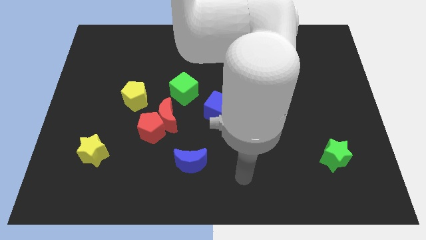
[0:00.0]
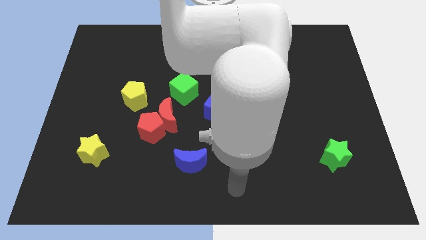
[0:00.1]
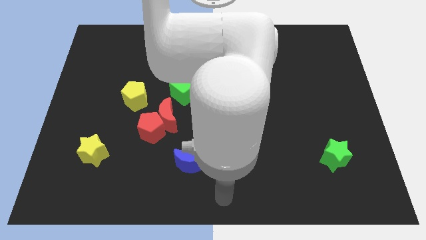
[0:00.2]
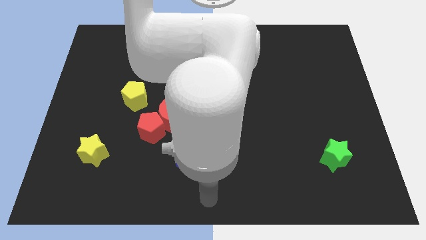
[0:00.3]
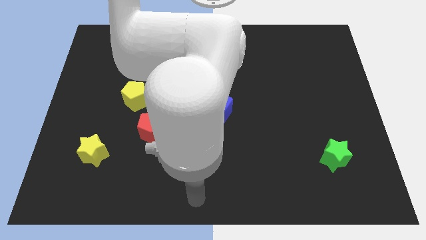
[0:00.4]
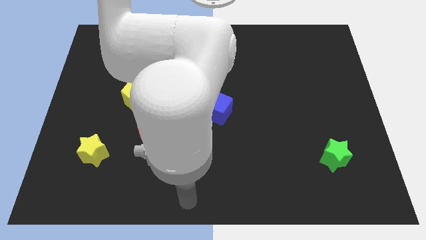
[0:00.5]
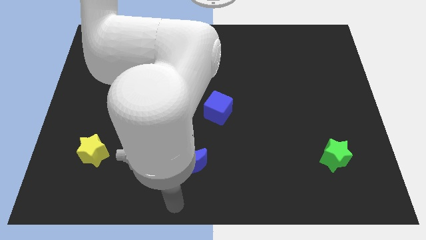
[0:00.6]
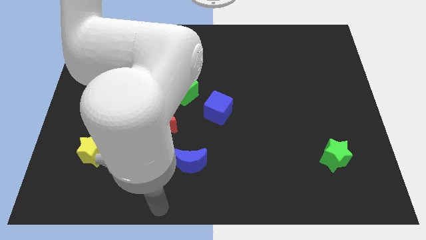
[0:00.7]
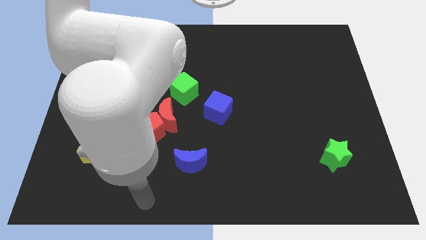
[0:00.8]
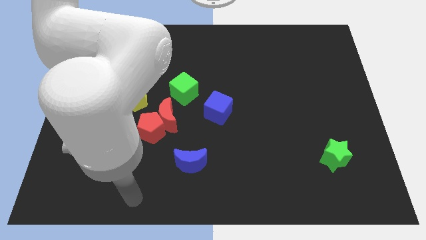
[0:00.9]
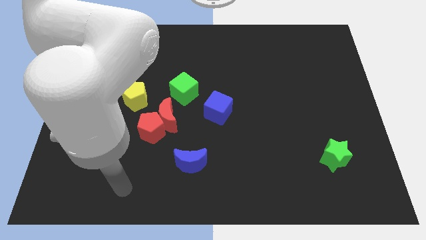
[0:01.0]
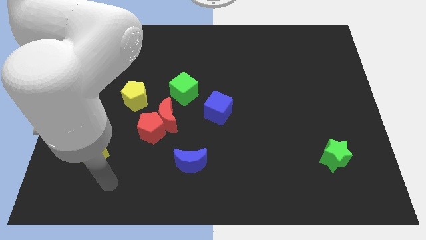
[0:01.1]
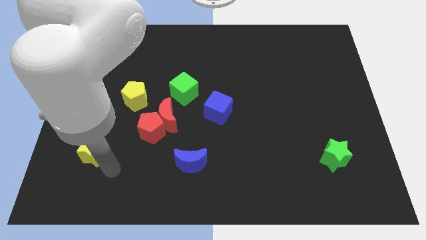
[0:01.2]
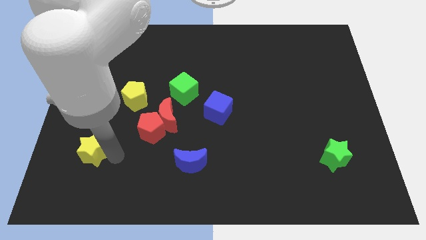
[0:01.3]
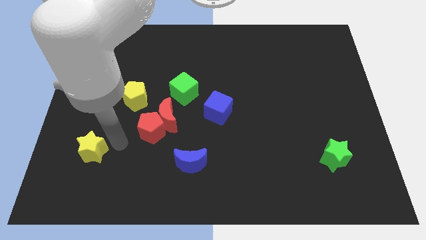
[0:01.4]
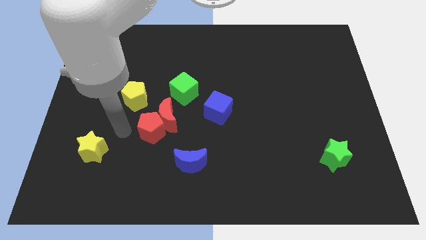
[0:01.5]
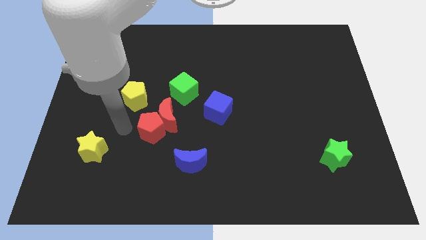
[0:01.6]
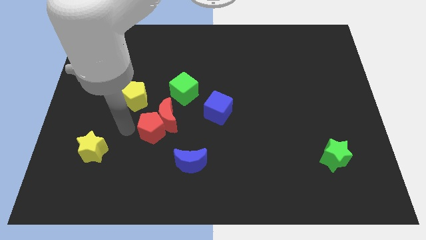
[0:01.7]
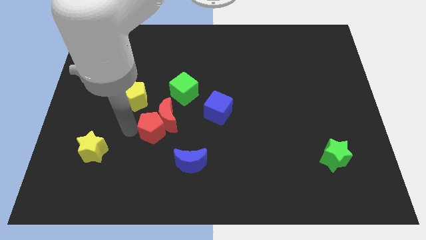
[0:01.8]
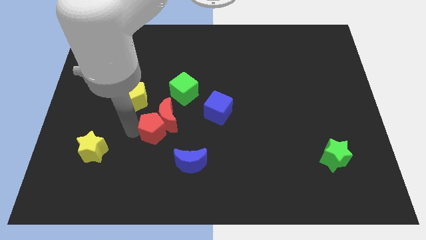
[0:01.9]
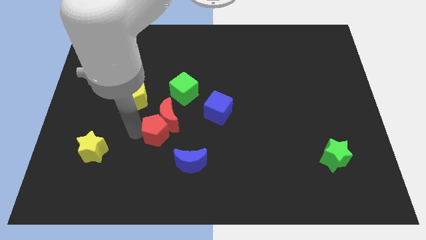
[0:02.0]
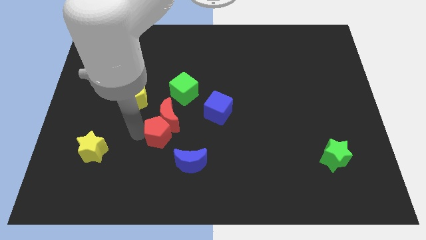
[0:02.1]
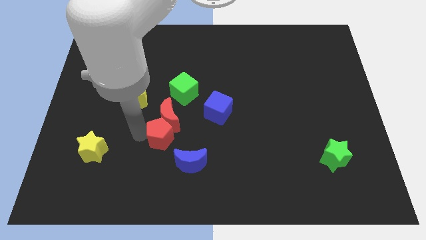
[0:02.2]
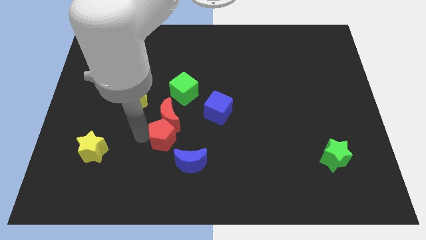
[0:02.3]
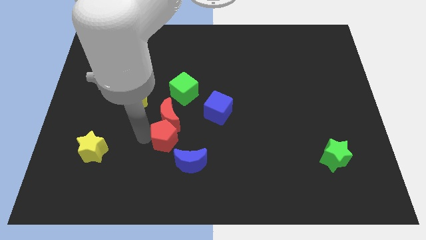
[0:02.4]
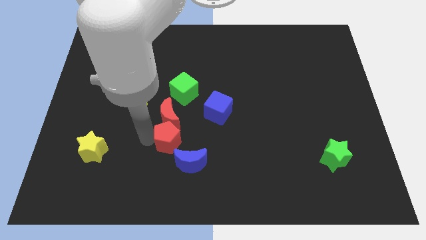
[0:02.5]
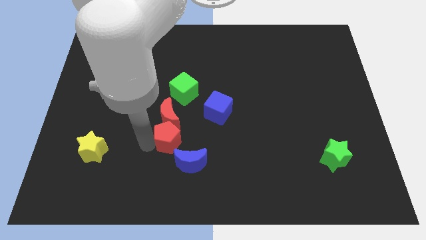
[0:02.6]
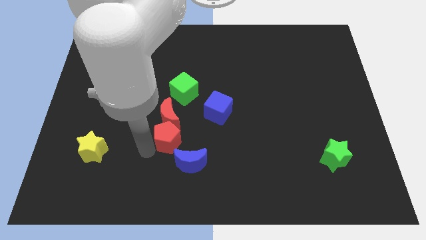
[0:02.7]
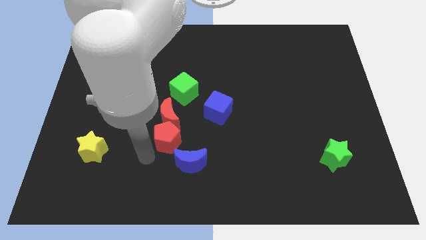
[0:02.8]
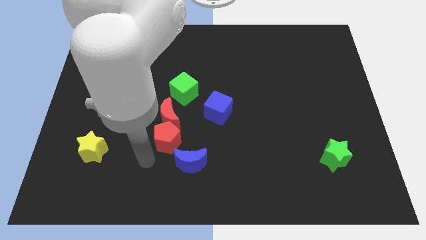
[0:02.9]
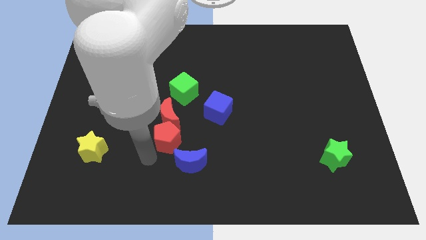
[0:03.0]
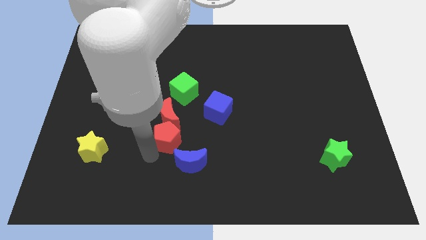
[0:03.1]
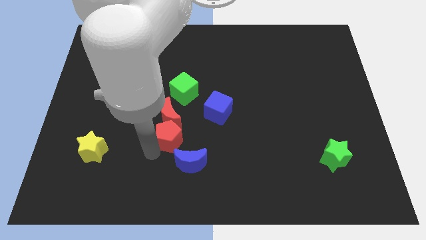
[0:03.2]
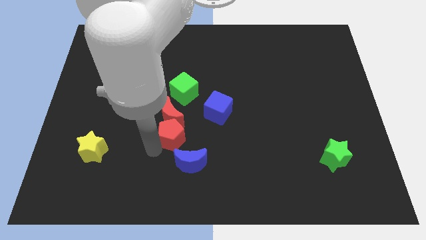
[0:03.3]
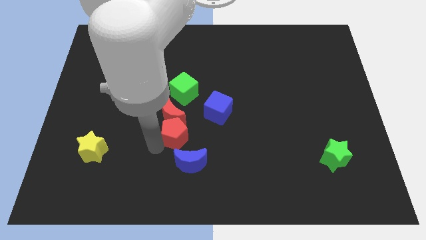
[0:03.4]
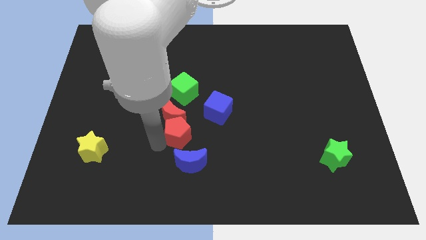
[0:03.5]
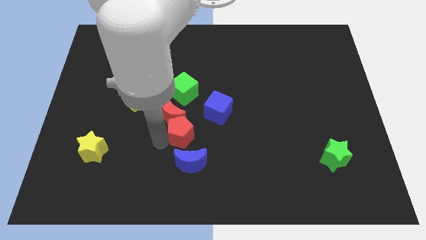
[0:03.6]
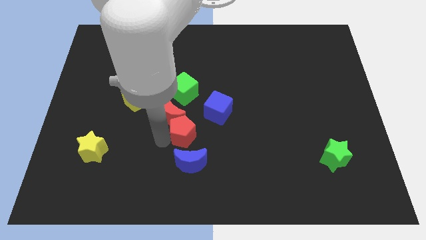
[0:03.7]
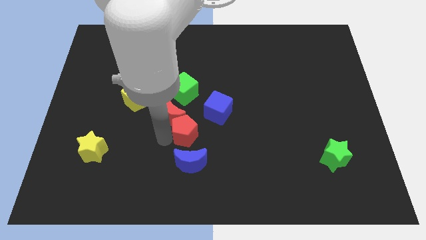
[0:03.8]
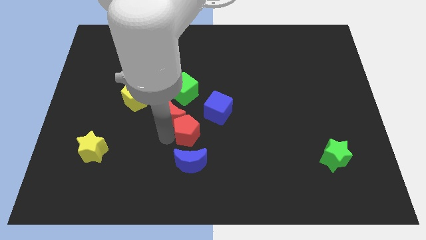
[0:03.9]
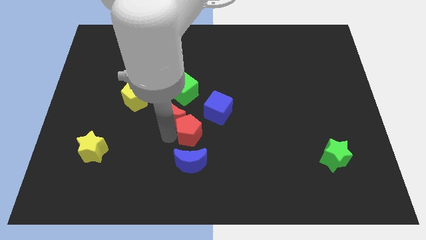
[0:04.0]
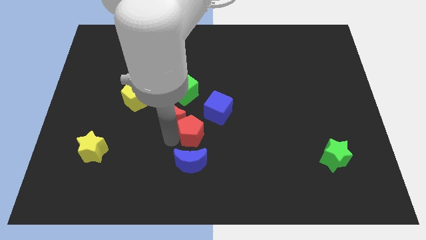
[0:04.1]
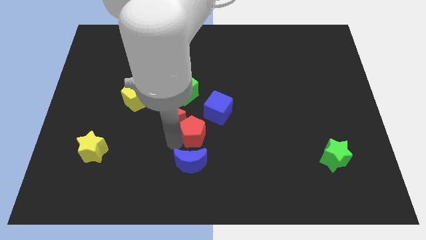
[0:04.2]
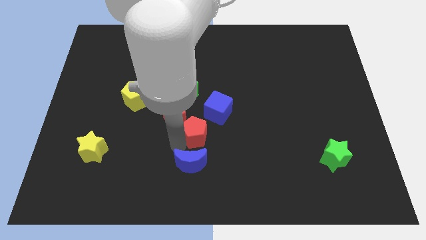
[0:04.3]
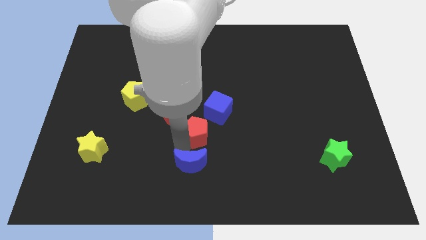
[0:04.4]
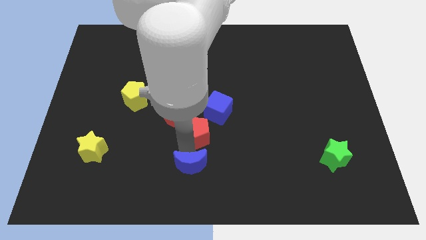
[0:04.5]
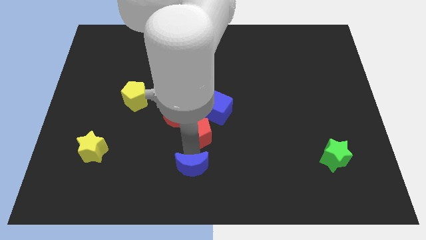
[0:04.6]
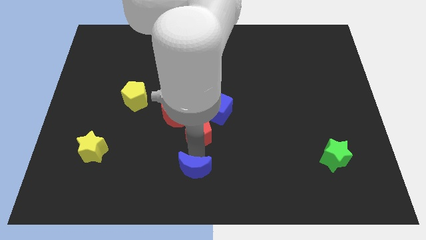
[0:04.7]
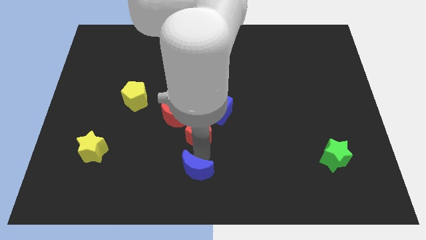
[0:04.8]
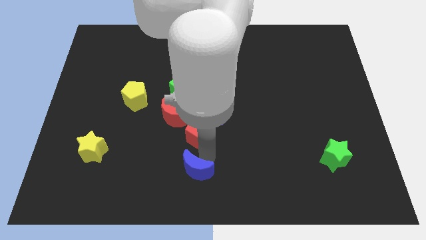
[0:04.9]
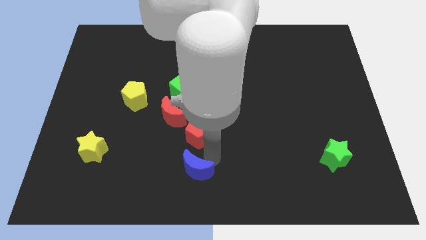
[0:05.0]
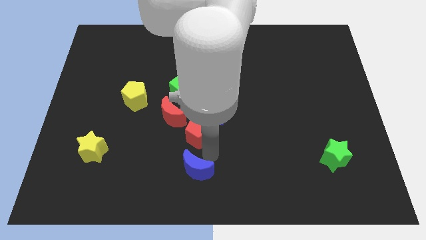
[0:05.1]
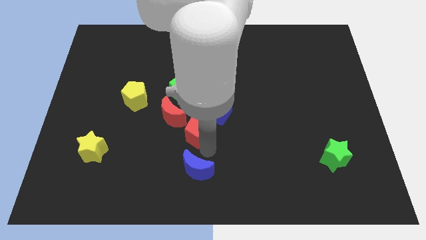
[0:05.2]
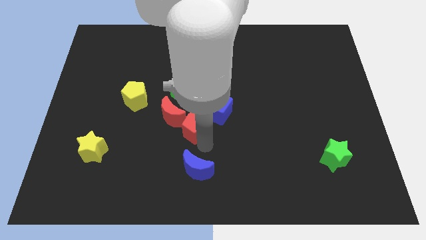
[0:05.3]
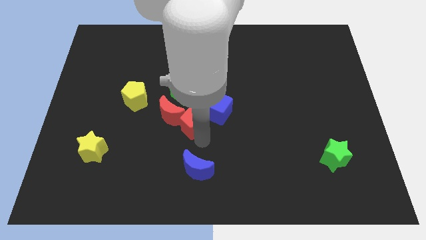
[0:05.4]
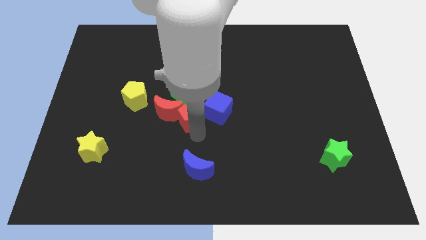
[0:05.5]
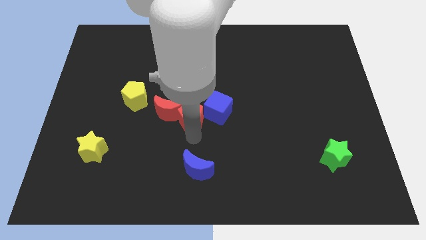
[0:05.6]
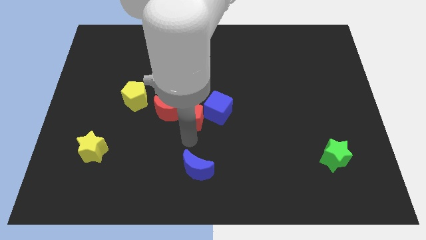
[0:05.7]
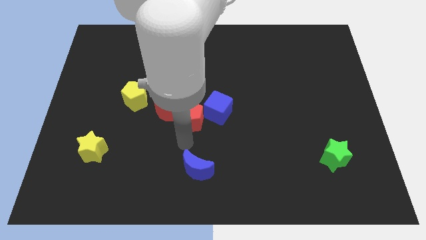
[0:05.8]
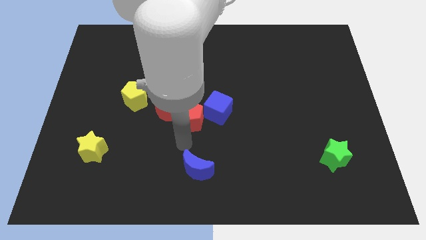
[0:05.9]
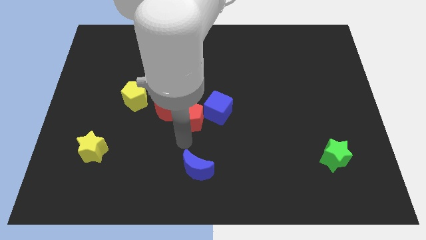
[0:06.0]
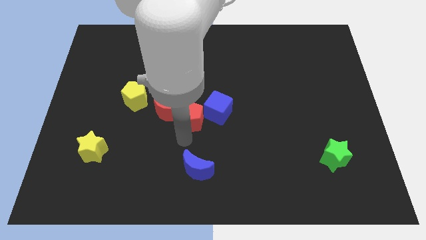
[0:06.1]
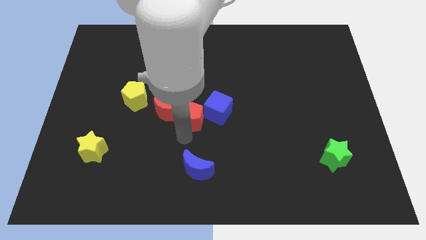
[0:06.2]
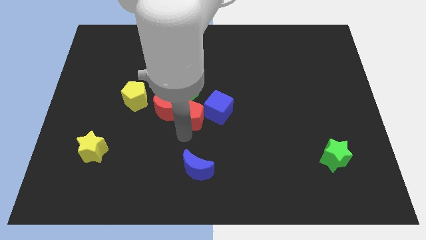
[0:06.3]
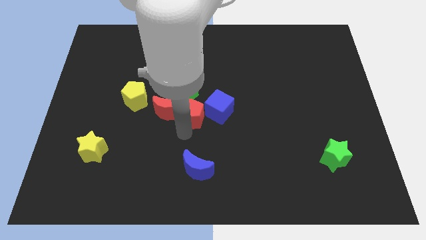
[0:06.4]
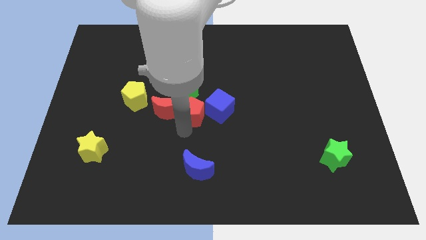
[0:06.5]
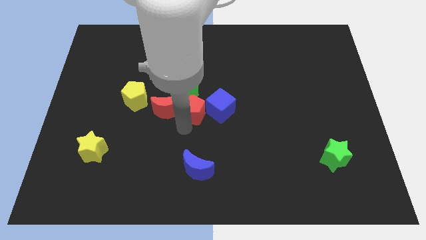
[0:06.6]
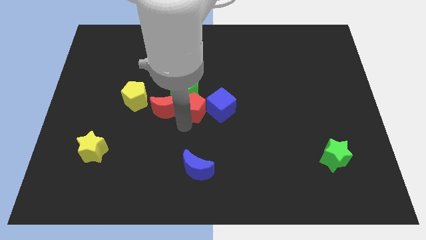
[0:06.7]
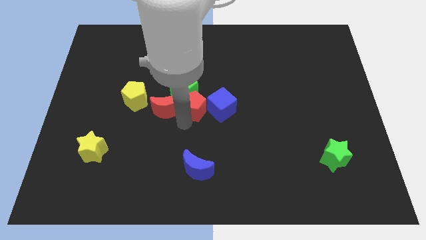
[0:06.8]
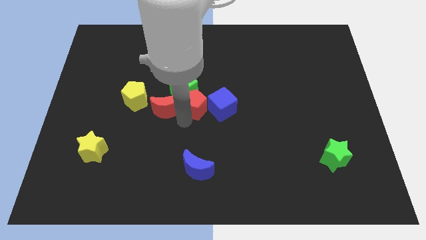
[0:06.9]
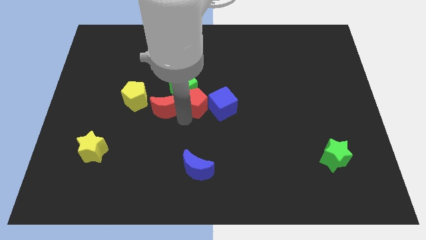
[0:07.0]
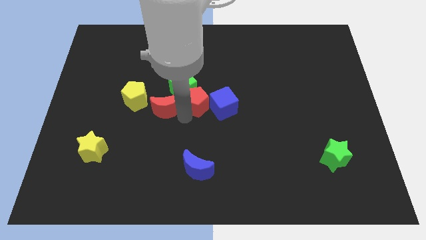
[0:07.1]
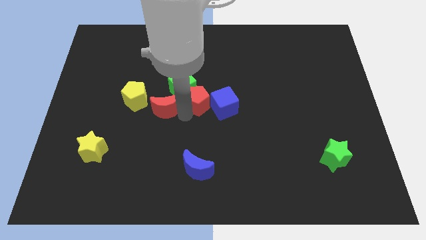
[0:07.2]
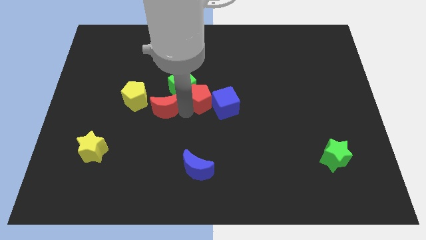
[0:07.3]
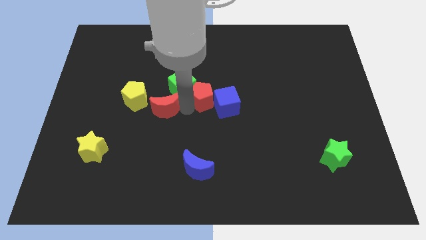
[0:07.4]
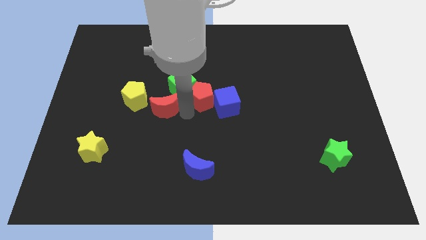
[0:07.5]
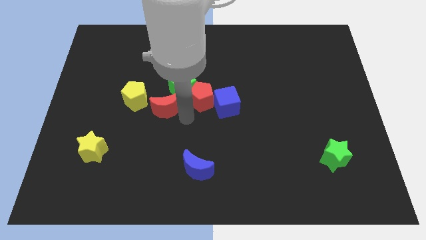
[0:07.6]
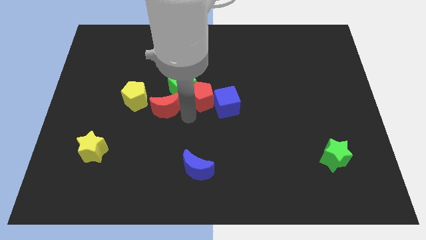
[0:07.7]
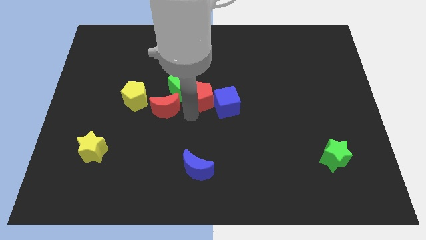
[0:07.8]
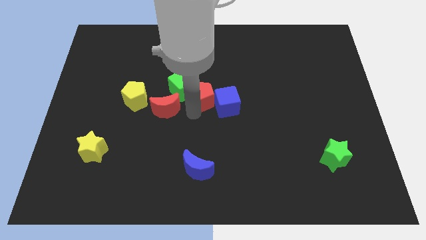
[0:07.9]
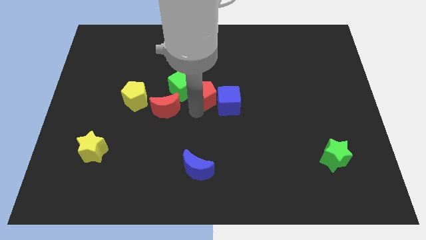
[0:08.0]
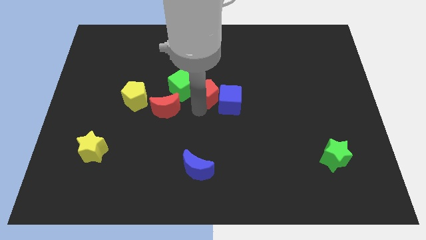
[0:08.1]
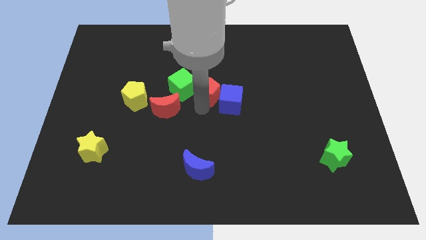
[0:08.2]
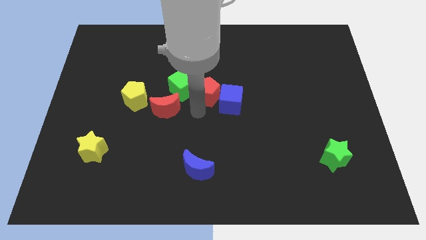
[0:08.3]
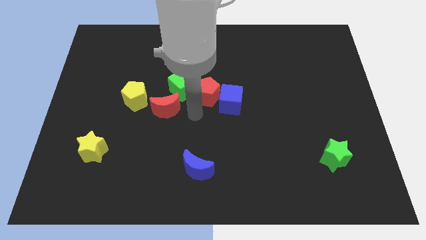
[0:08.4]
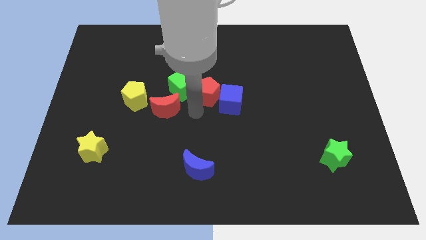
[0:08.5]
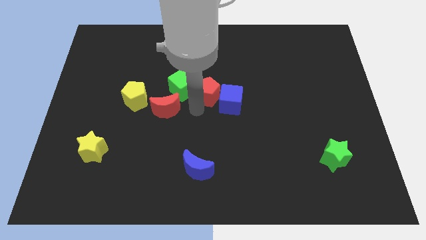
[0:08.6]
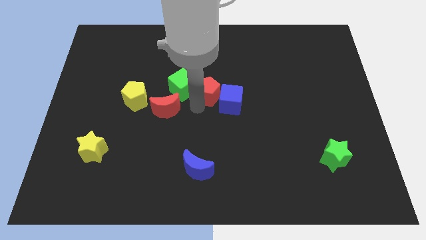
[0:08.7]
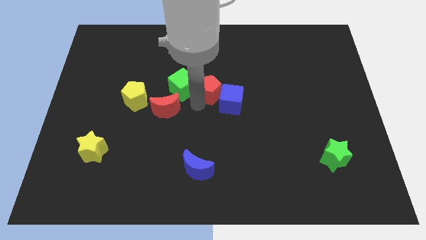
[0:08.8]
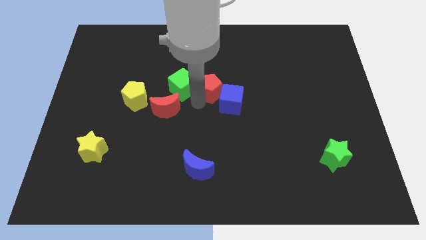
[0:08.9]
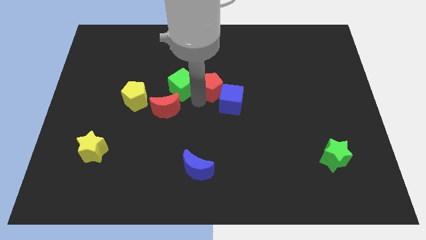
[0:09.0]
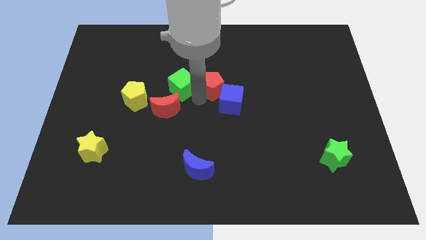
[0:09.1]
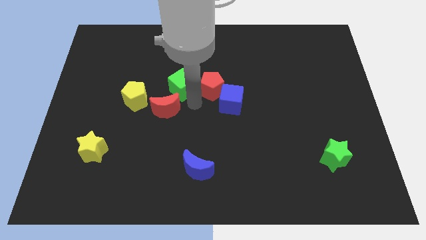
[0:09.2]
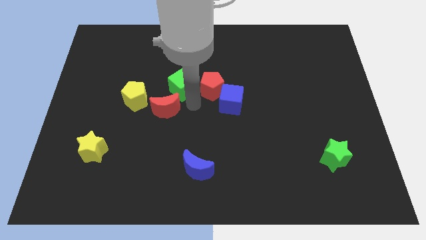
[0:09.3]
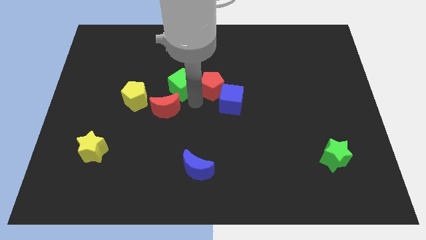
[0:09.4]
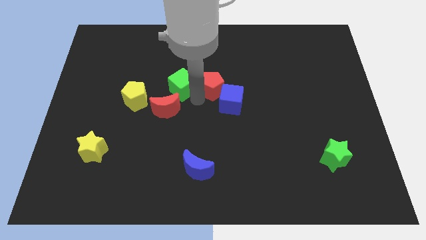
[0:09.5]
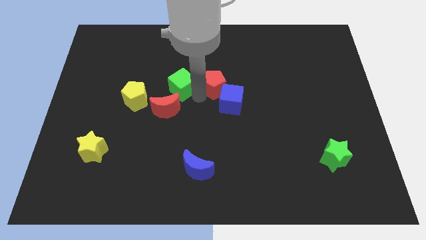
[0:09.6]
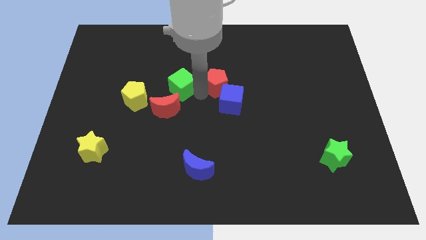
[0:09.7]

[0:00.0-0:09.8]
slide the red pentagon diagonally upwards and right
